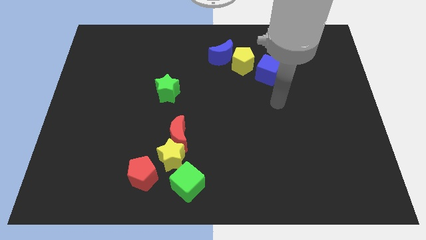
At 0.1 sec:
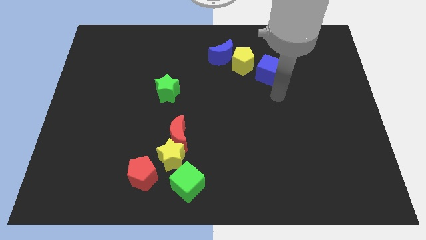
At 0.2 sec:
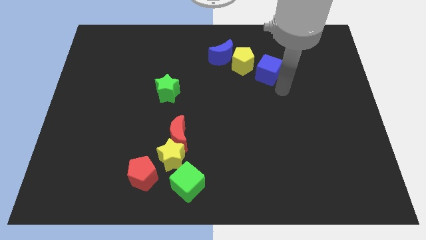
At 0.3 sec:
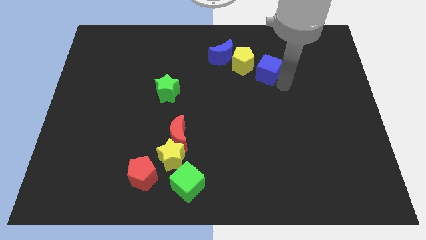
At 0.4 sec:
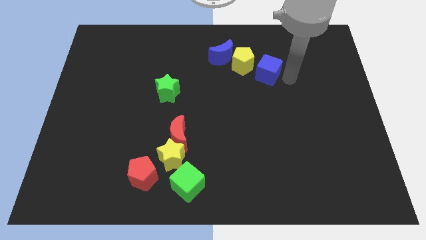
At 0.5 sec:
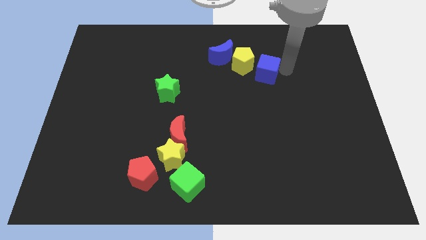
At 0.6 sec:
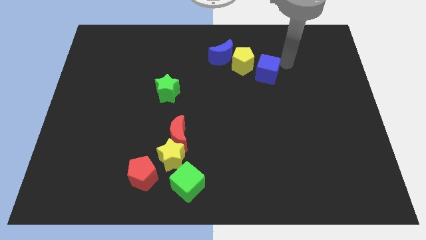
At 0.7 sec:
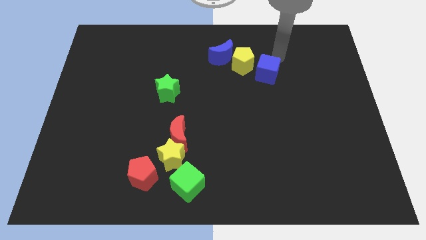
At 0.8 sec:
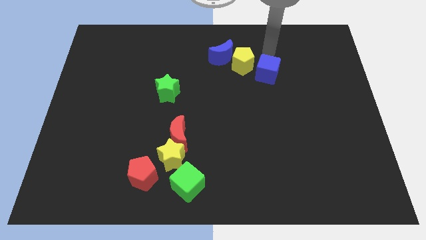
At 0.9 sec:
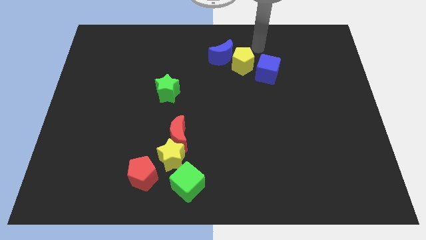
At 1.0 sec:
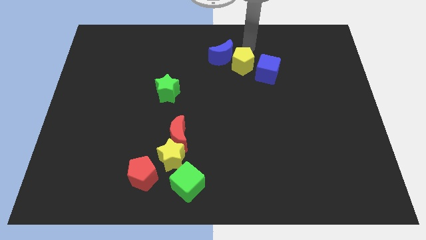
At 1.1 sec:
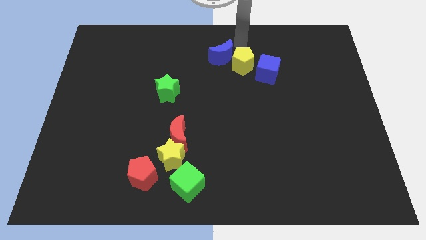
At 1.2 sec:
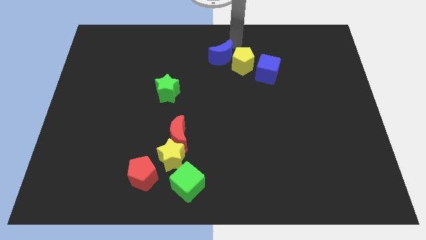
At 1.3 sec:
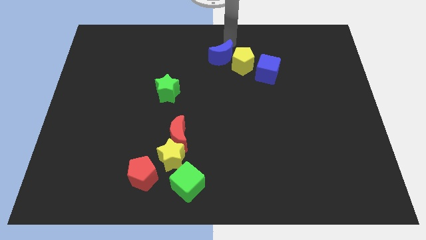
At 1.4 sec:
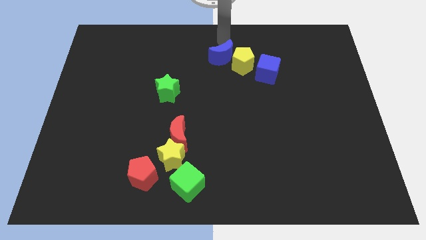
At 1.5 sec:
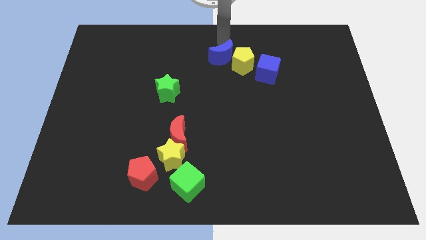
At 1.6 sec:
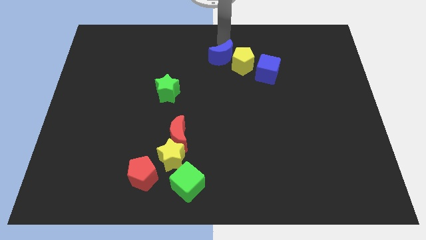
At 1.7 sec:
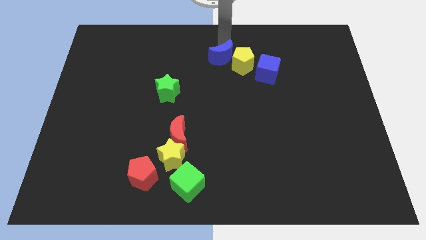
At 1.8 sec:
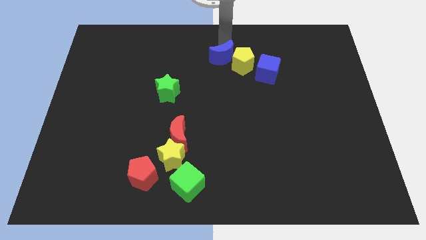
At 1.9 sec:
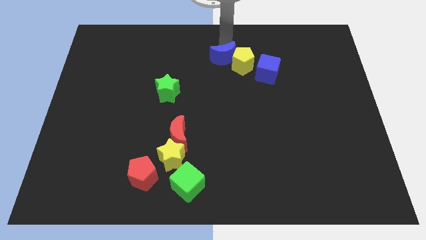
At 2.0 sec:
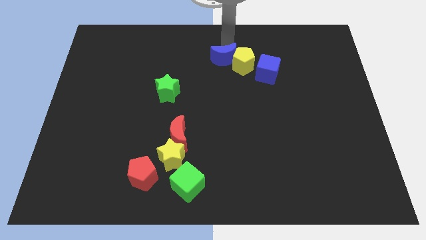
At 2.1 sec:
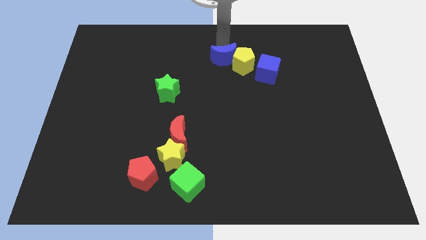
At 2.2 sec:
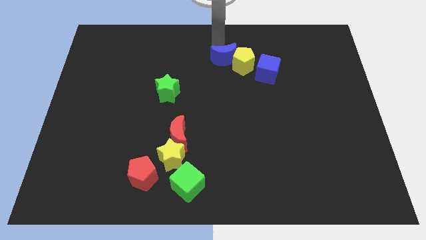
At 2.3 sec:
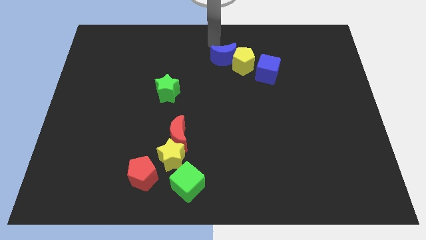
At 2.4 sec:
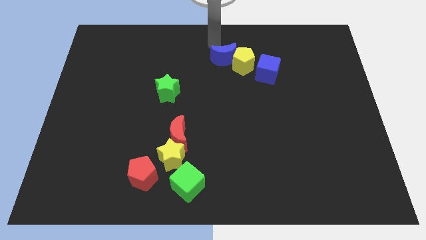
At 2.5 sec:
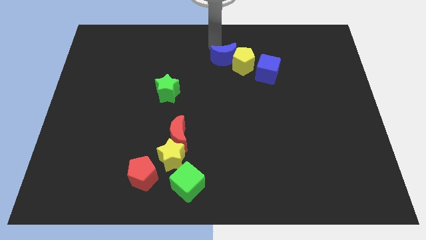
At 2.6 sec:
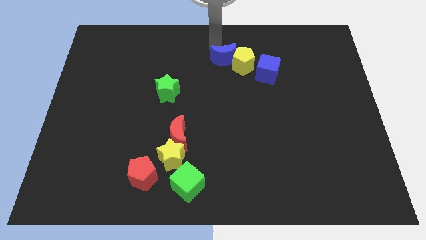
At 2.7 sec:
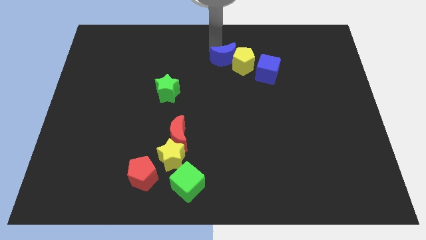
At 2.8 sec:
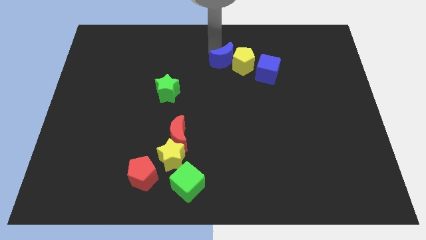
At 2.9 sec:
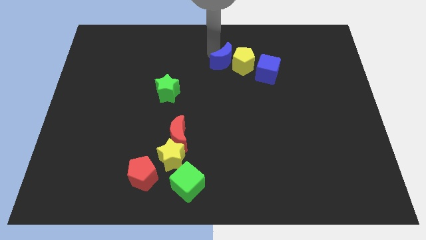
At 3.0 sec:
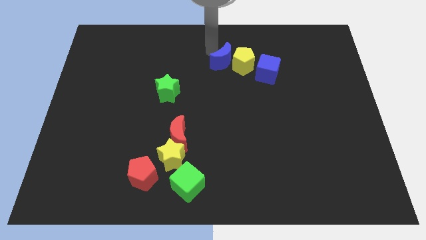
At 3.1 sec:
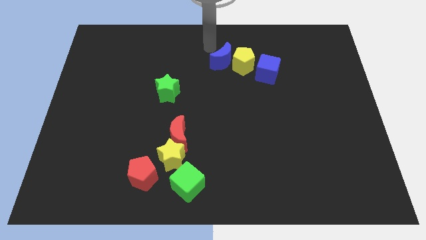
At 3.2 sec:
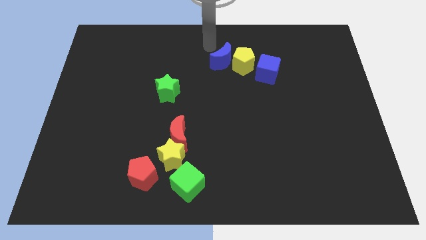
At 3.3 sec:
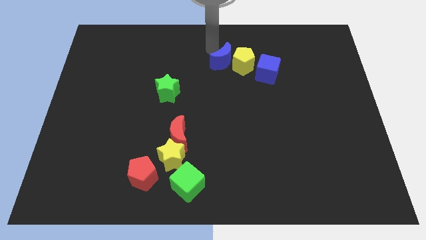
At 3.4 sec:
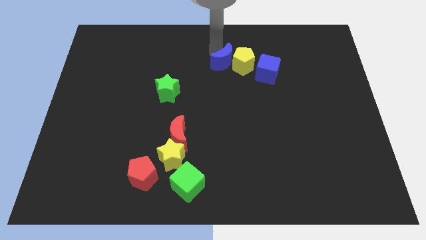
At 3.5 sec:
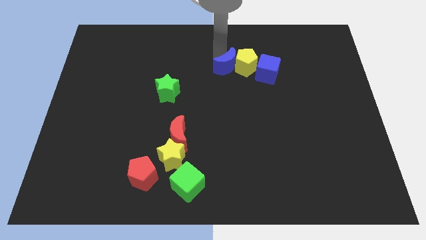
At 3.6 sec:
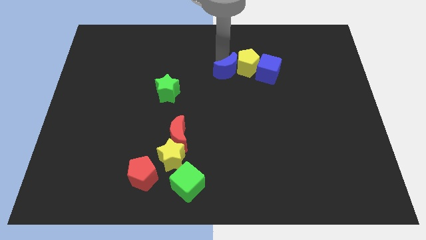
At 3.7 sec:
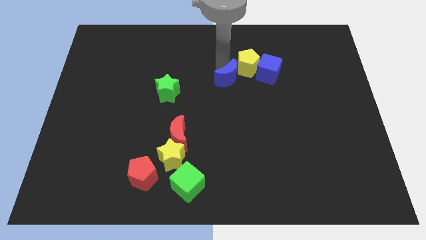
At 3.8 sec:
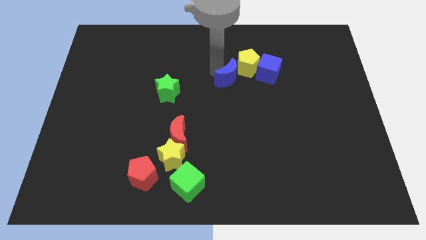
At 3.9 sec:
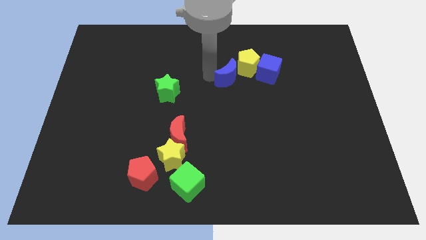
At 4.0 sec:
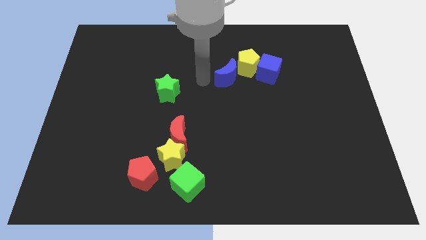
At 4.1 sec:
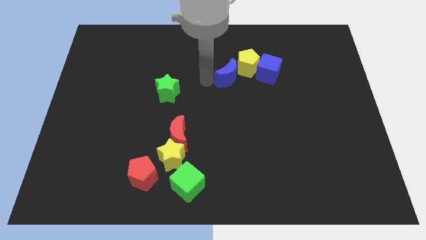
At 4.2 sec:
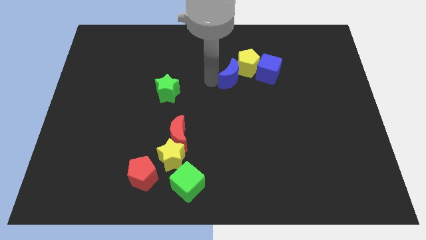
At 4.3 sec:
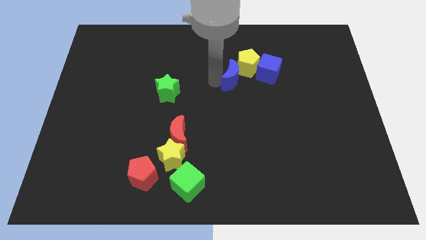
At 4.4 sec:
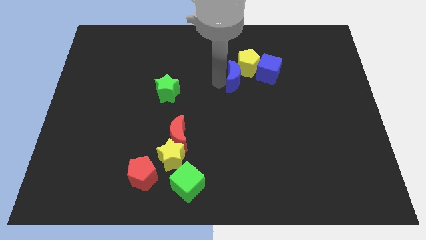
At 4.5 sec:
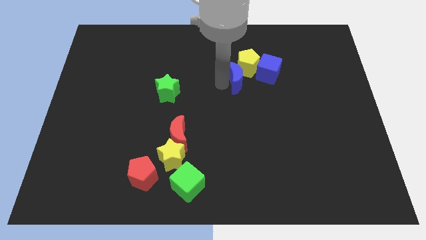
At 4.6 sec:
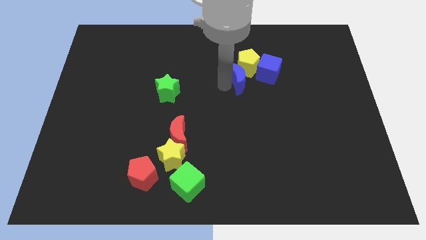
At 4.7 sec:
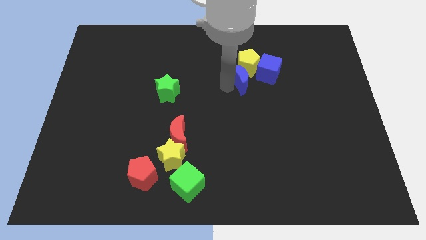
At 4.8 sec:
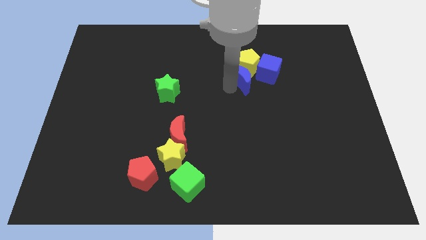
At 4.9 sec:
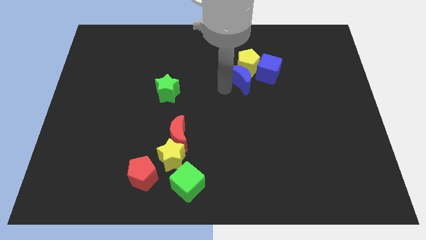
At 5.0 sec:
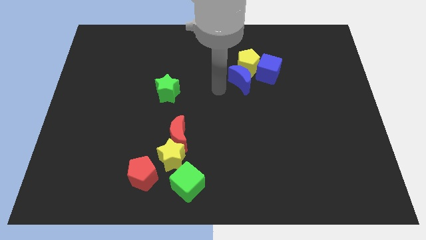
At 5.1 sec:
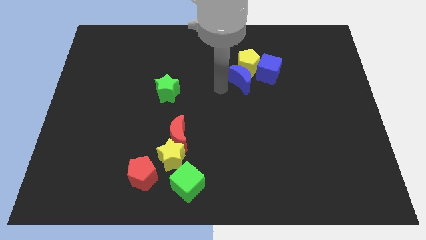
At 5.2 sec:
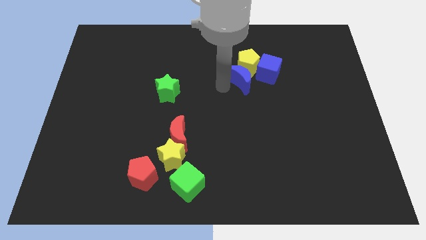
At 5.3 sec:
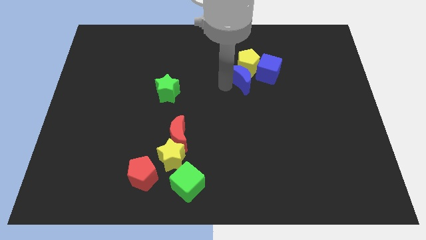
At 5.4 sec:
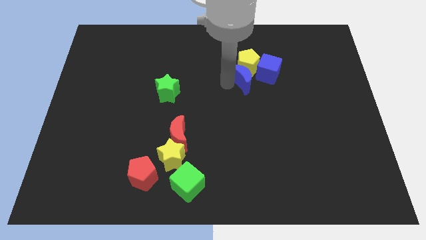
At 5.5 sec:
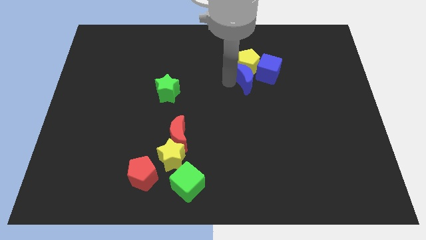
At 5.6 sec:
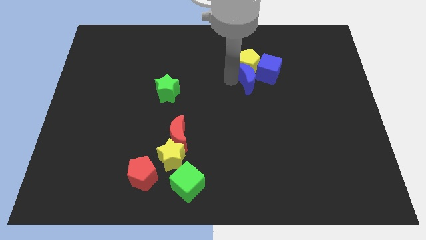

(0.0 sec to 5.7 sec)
slide the blue moon next to the blue cube

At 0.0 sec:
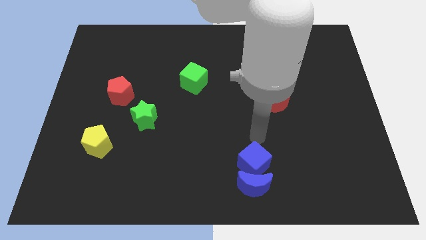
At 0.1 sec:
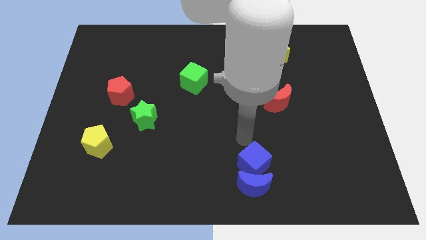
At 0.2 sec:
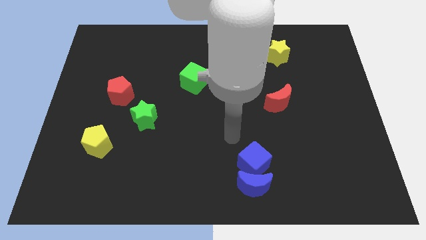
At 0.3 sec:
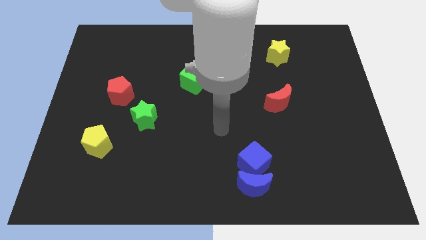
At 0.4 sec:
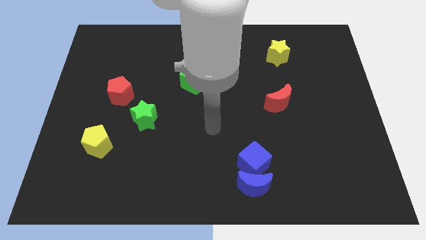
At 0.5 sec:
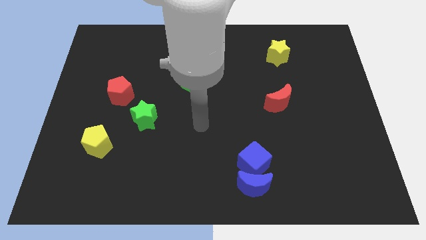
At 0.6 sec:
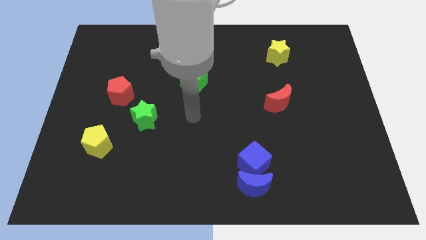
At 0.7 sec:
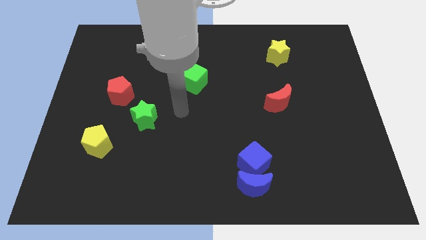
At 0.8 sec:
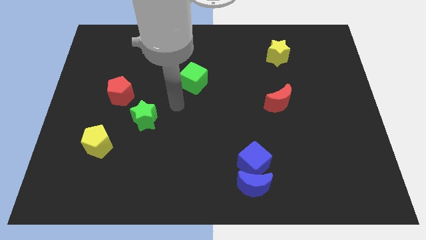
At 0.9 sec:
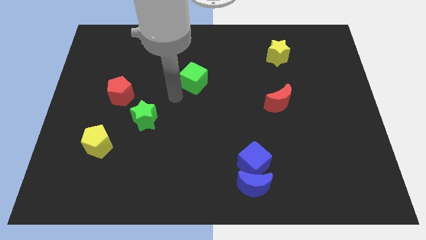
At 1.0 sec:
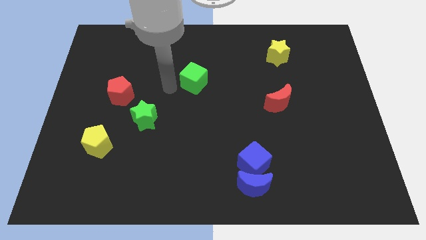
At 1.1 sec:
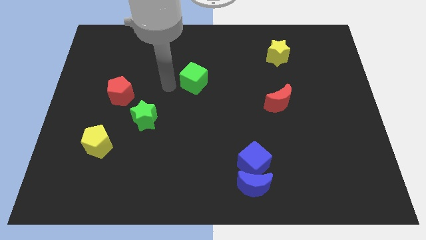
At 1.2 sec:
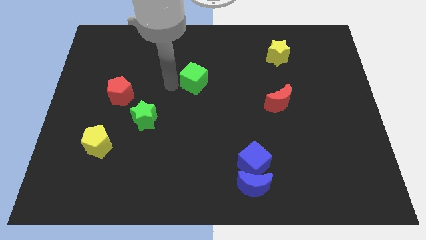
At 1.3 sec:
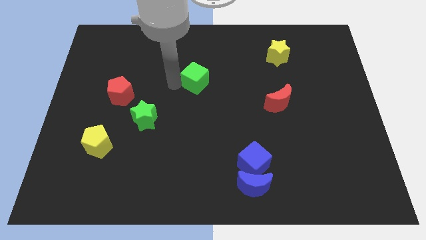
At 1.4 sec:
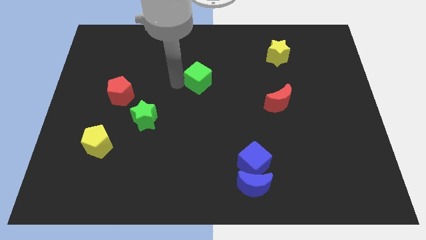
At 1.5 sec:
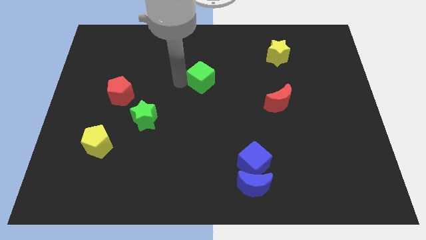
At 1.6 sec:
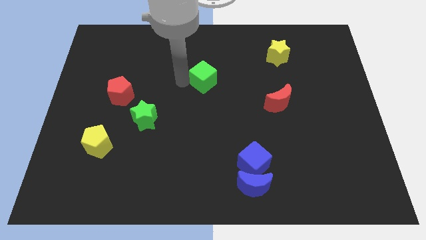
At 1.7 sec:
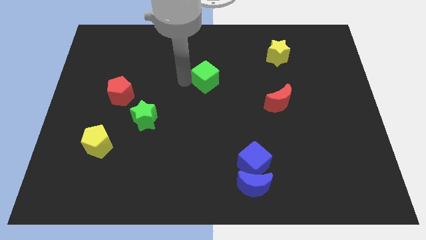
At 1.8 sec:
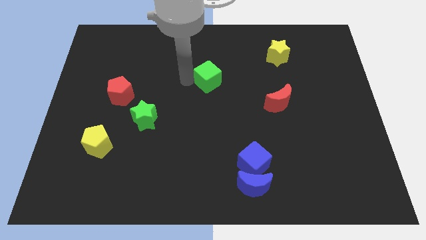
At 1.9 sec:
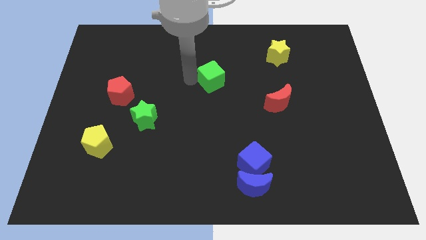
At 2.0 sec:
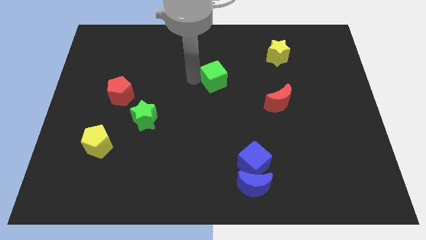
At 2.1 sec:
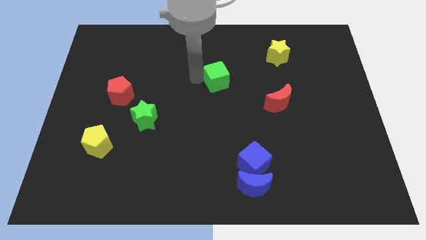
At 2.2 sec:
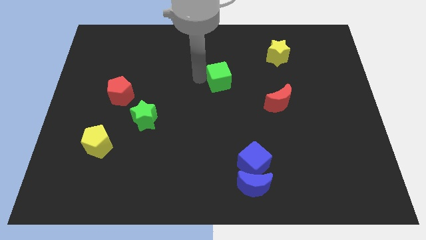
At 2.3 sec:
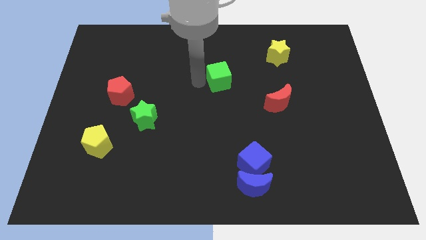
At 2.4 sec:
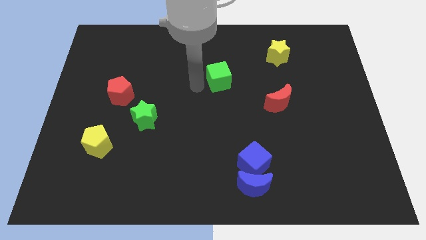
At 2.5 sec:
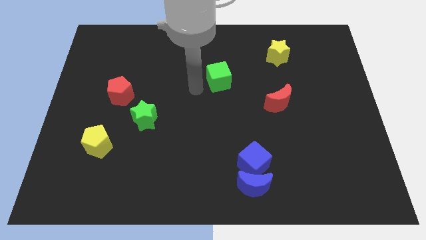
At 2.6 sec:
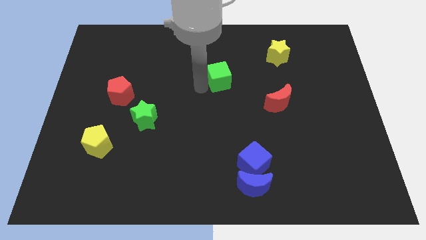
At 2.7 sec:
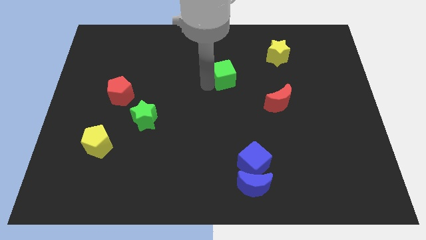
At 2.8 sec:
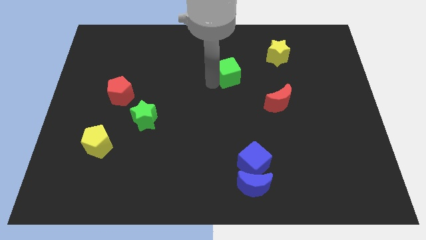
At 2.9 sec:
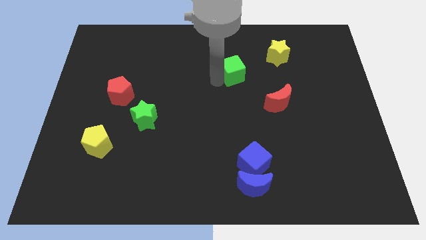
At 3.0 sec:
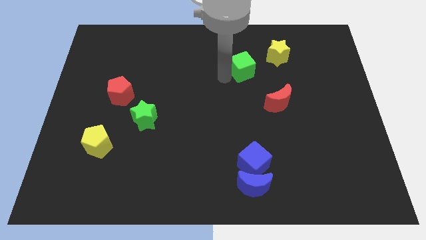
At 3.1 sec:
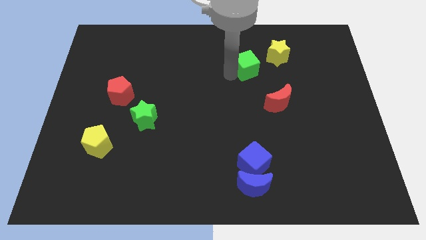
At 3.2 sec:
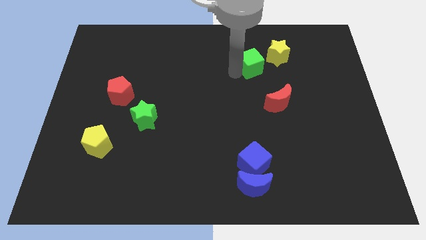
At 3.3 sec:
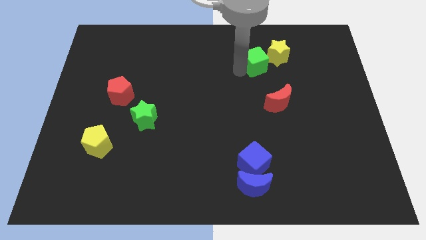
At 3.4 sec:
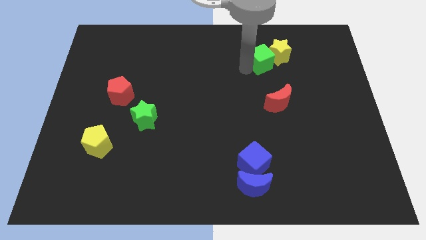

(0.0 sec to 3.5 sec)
push the green cube close to the yellow star
